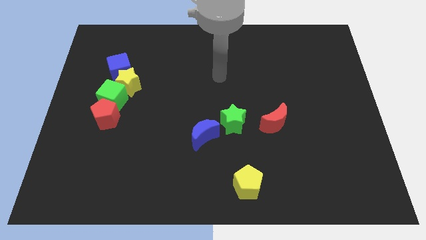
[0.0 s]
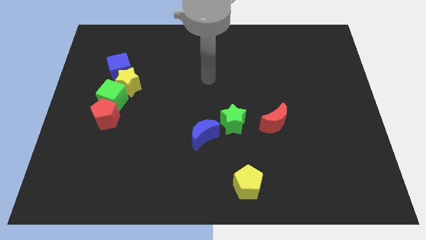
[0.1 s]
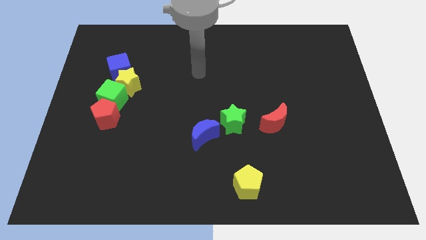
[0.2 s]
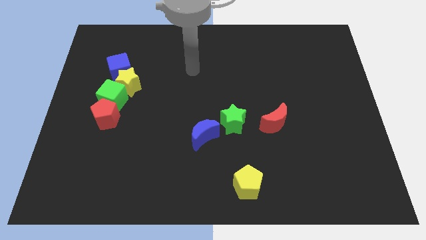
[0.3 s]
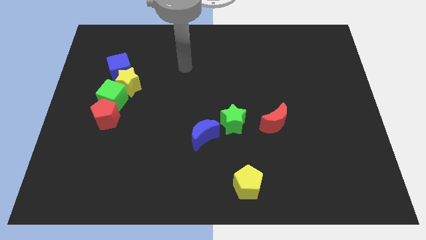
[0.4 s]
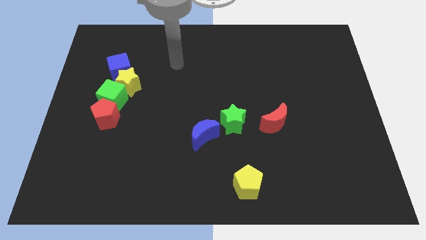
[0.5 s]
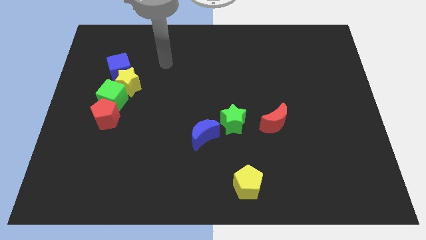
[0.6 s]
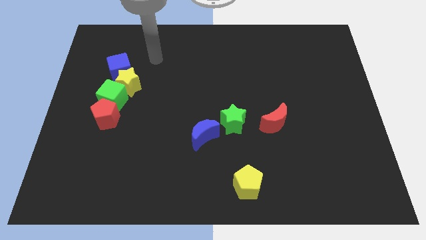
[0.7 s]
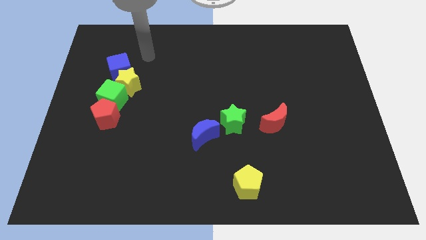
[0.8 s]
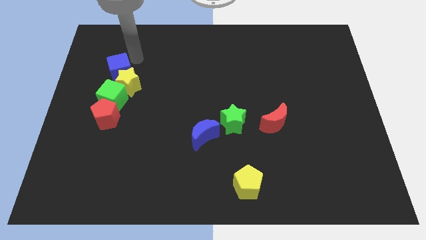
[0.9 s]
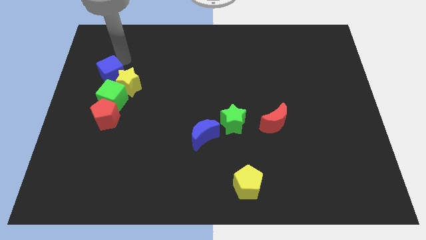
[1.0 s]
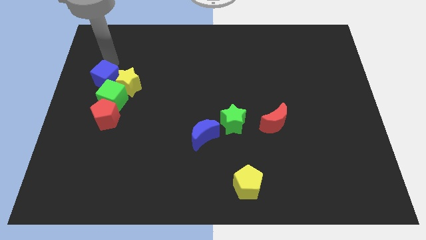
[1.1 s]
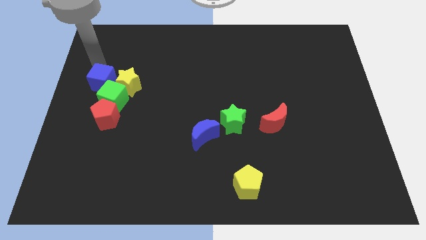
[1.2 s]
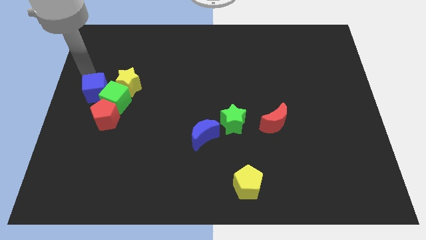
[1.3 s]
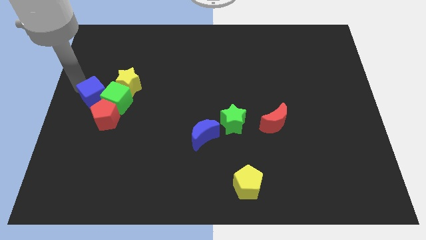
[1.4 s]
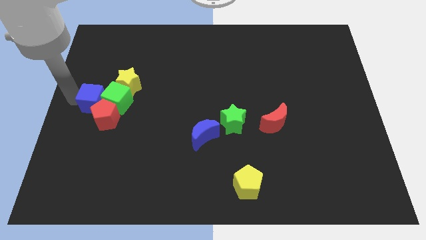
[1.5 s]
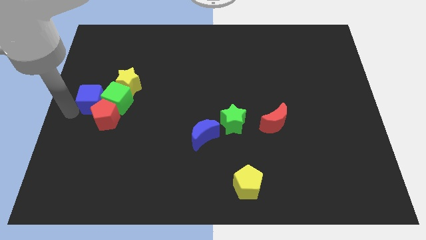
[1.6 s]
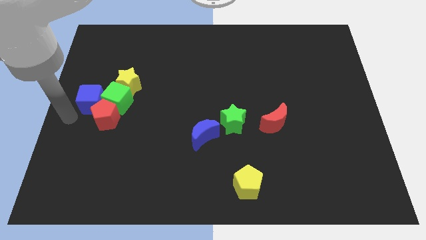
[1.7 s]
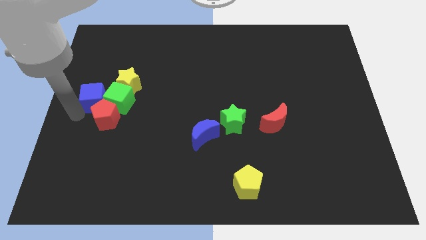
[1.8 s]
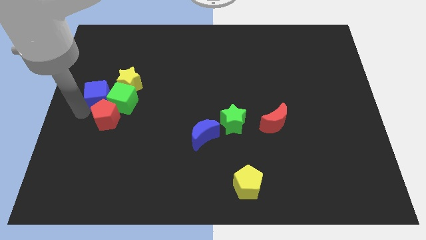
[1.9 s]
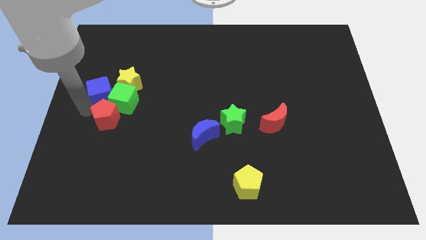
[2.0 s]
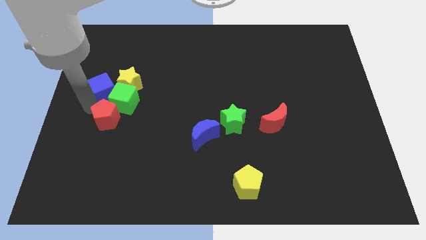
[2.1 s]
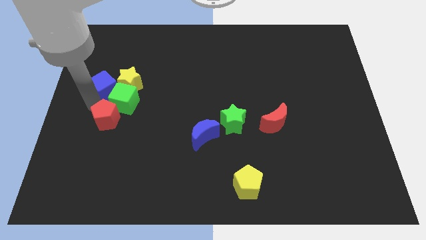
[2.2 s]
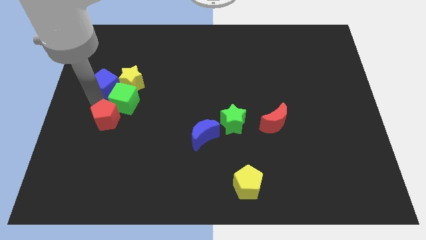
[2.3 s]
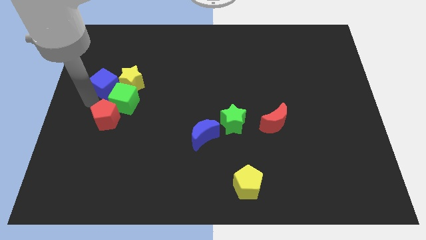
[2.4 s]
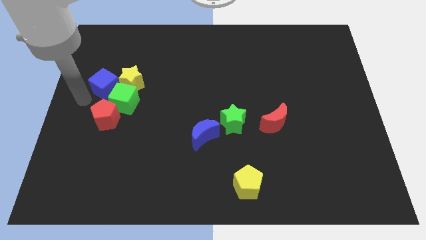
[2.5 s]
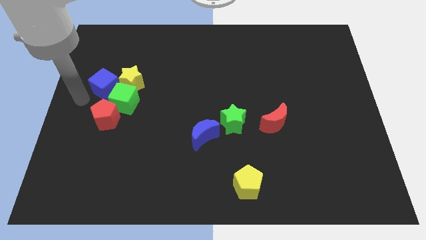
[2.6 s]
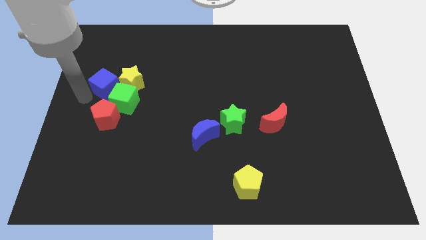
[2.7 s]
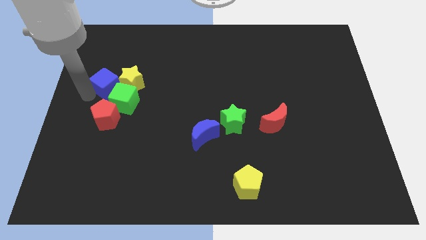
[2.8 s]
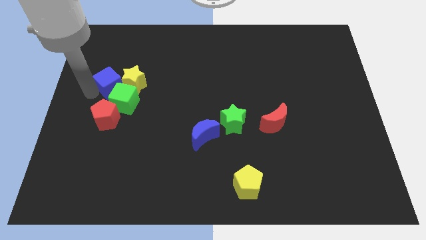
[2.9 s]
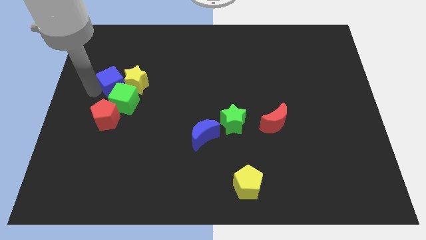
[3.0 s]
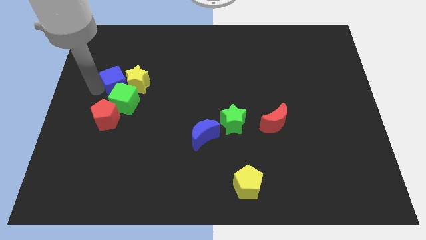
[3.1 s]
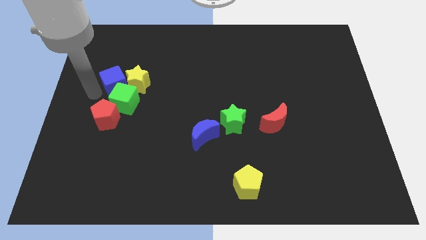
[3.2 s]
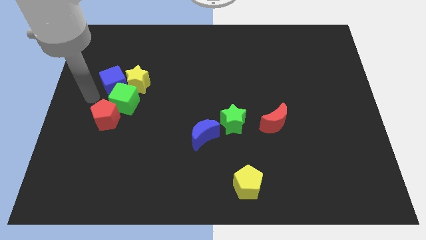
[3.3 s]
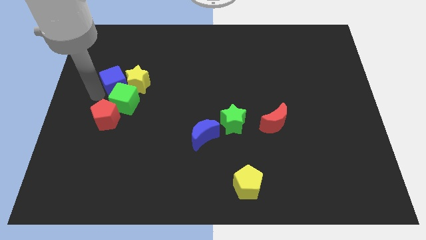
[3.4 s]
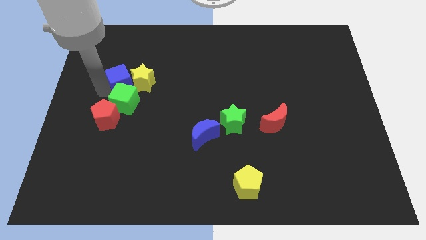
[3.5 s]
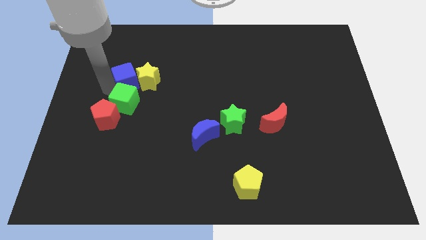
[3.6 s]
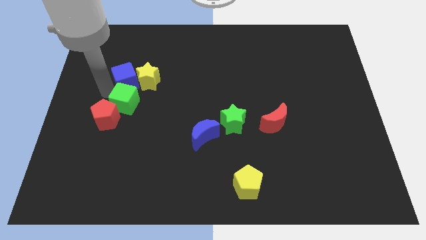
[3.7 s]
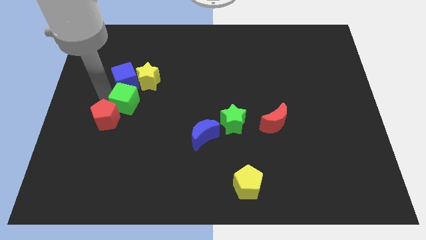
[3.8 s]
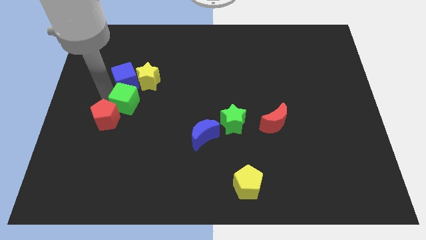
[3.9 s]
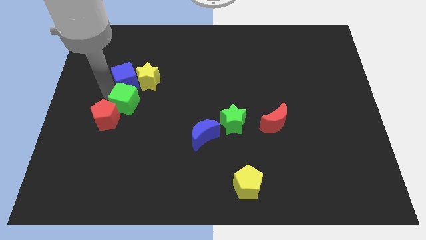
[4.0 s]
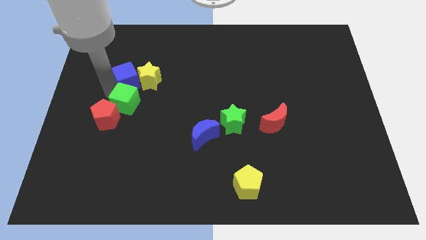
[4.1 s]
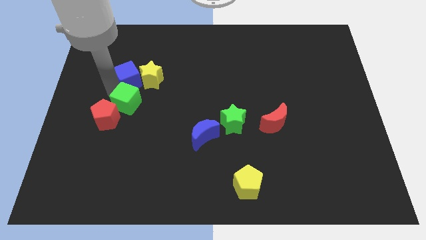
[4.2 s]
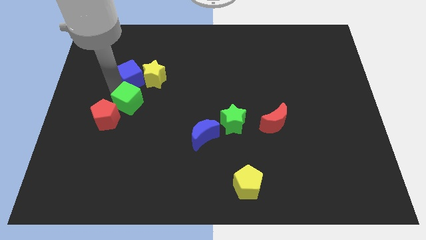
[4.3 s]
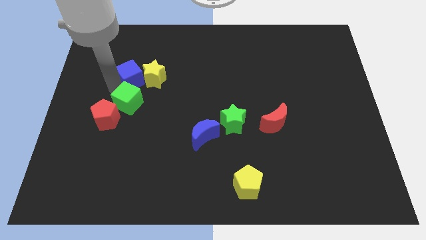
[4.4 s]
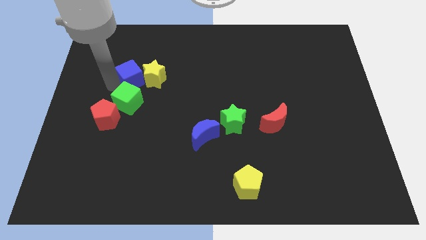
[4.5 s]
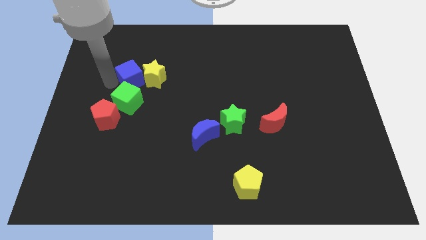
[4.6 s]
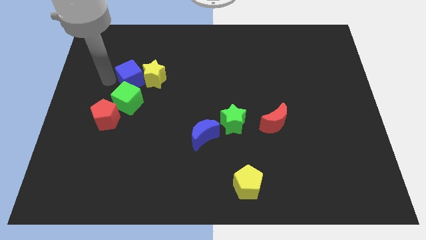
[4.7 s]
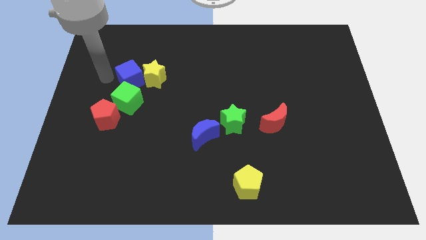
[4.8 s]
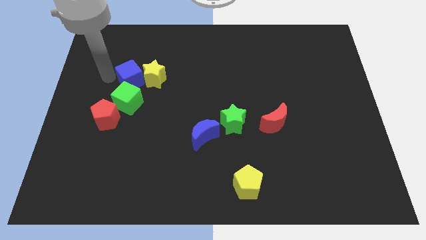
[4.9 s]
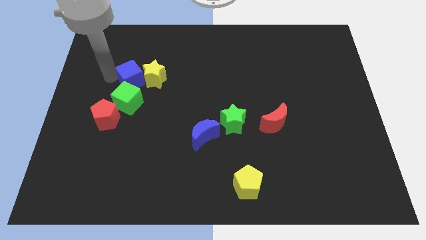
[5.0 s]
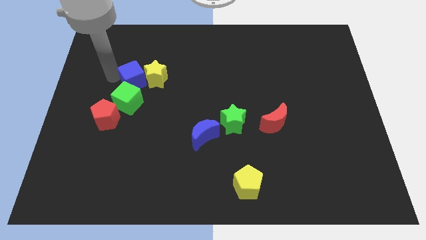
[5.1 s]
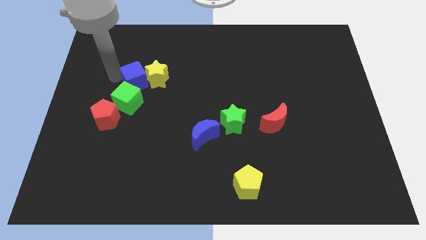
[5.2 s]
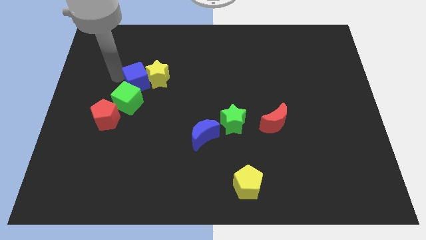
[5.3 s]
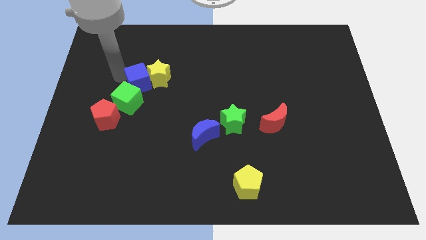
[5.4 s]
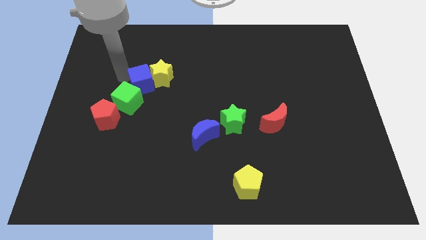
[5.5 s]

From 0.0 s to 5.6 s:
slightly push the blue cube diagonally downwards and right

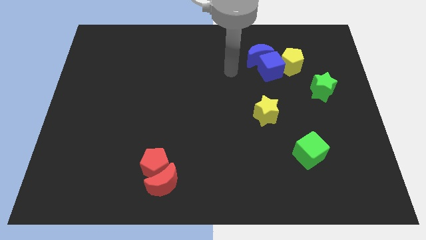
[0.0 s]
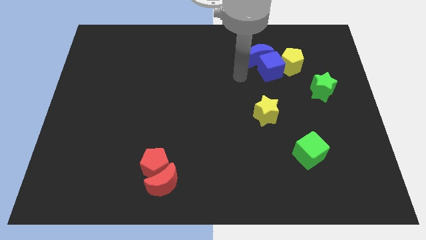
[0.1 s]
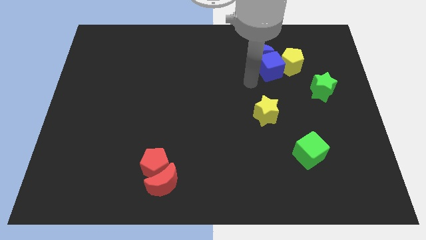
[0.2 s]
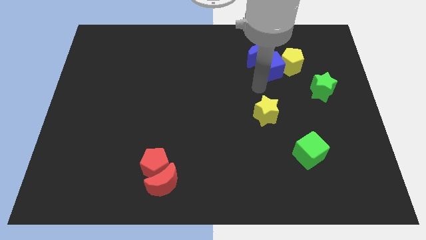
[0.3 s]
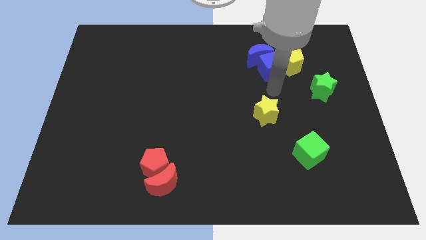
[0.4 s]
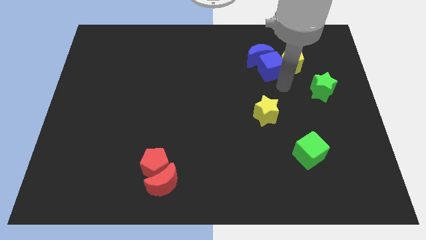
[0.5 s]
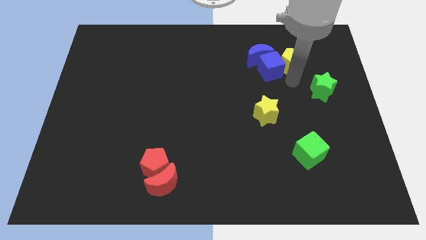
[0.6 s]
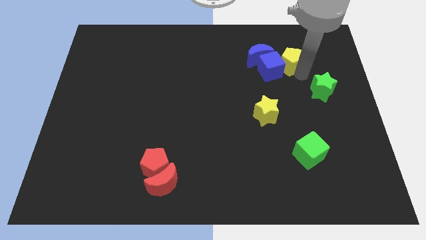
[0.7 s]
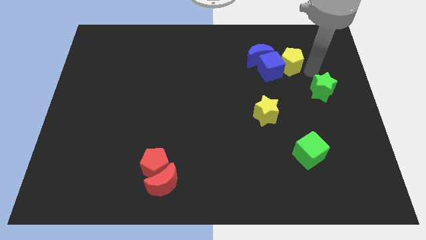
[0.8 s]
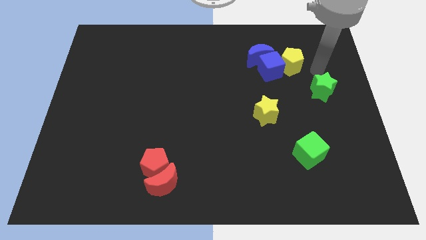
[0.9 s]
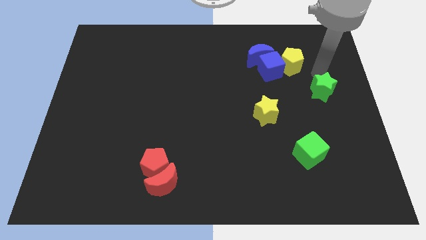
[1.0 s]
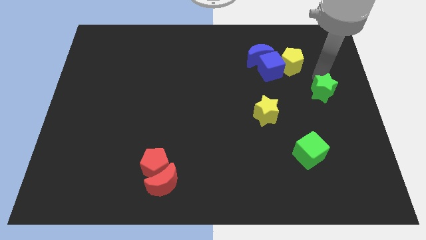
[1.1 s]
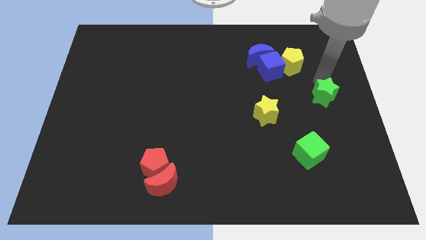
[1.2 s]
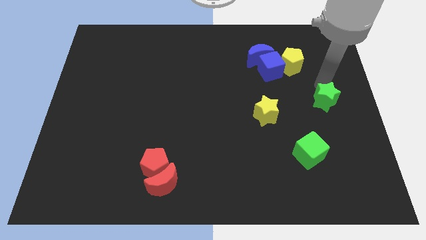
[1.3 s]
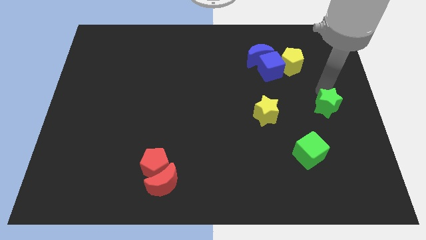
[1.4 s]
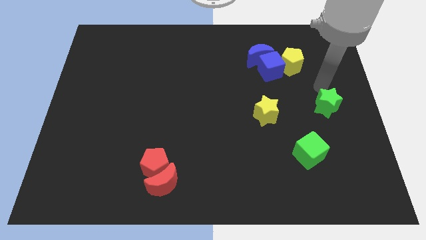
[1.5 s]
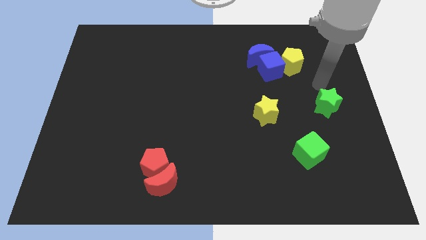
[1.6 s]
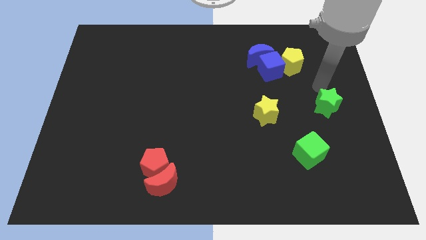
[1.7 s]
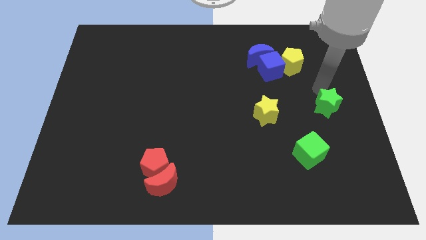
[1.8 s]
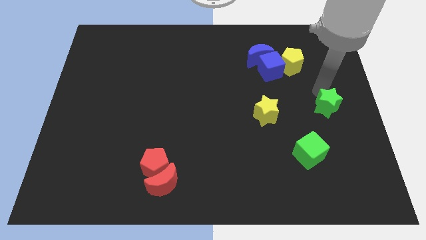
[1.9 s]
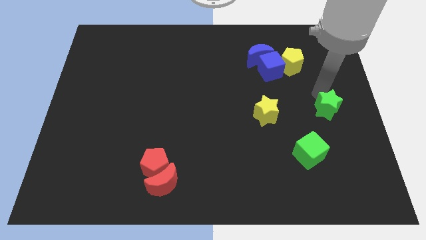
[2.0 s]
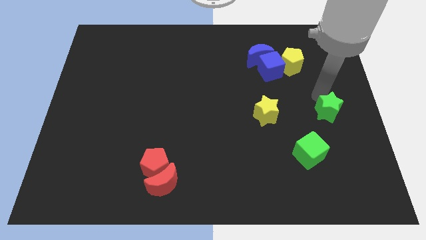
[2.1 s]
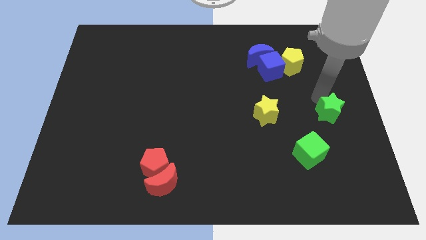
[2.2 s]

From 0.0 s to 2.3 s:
move the green star a little down
